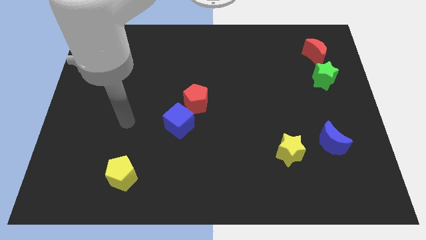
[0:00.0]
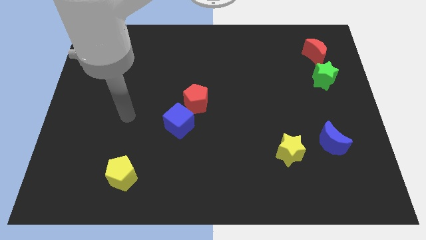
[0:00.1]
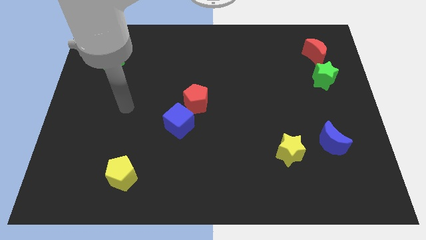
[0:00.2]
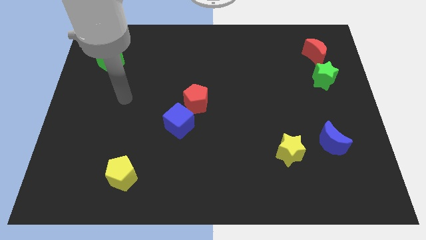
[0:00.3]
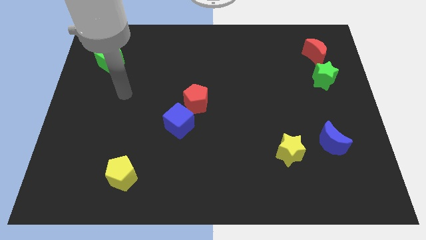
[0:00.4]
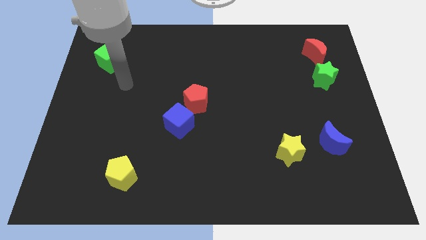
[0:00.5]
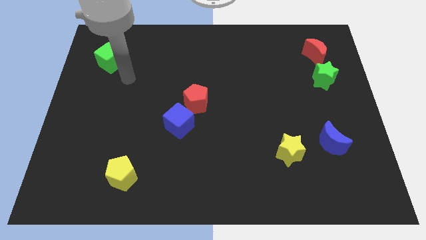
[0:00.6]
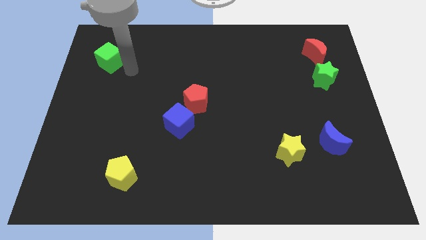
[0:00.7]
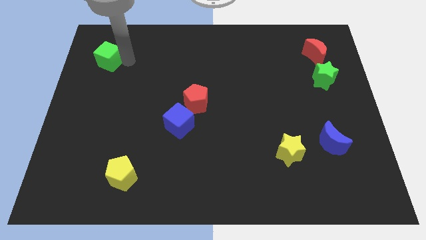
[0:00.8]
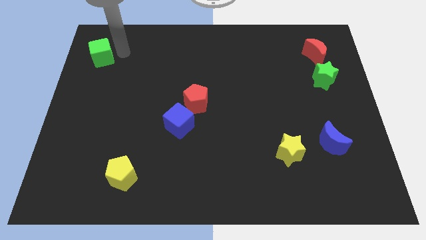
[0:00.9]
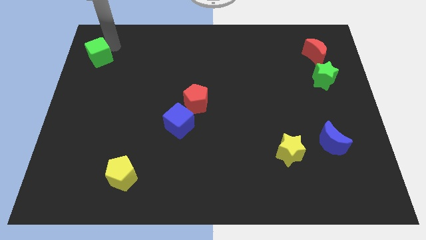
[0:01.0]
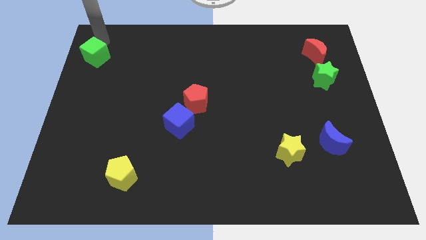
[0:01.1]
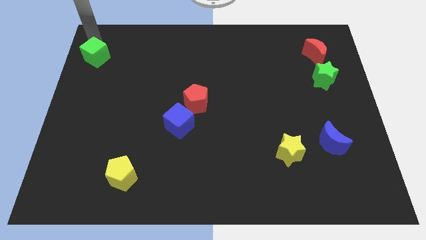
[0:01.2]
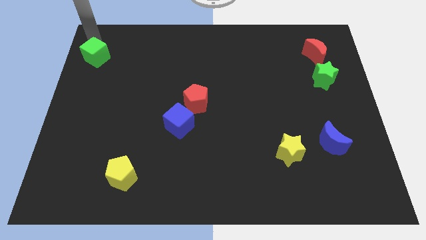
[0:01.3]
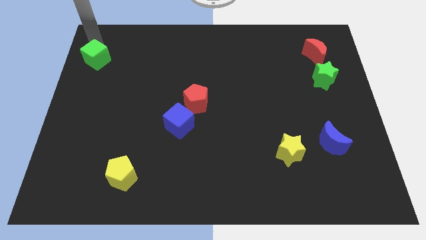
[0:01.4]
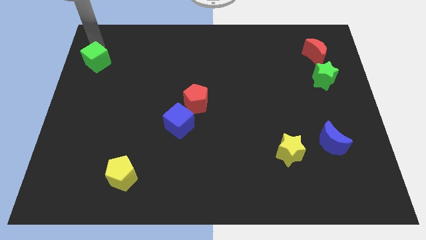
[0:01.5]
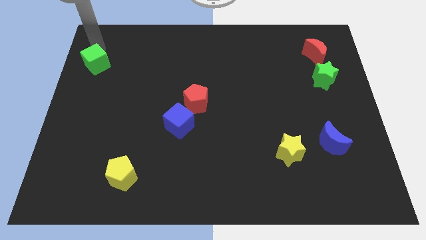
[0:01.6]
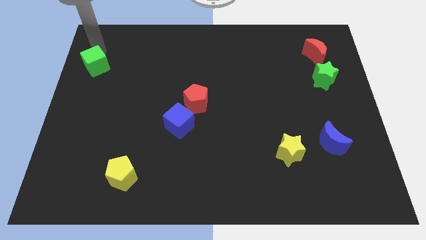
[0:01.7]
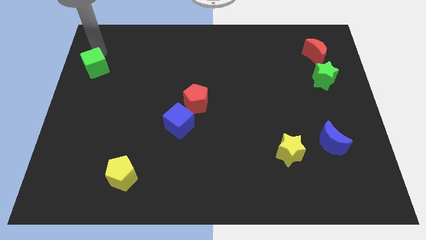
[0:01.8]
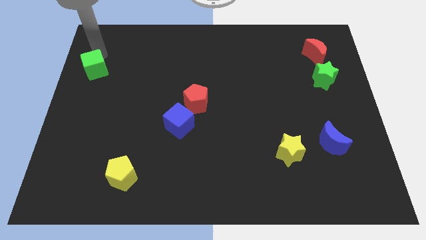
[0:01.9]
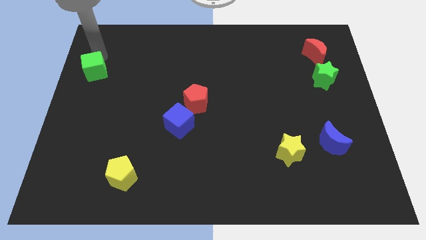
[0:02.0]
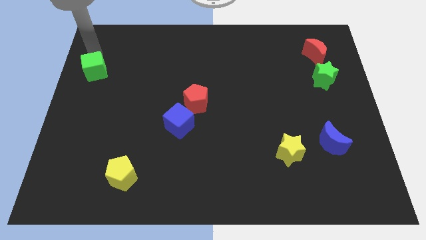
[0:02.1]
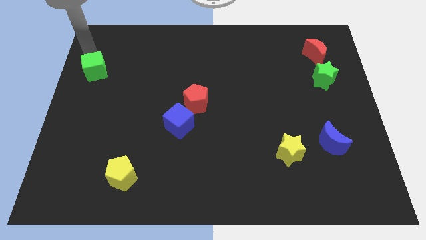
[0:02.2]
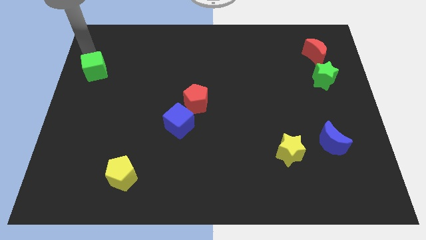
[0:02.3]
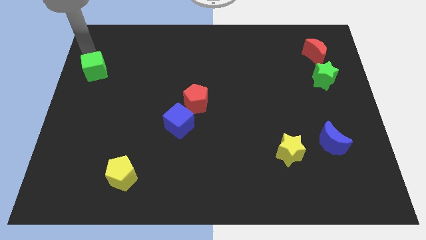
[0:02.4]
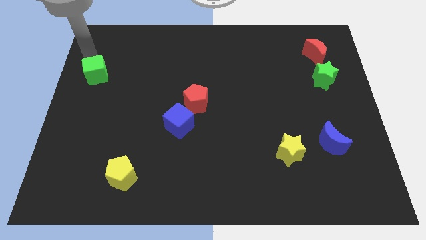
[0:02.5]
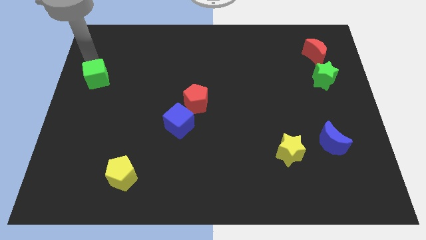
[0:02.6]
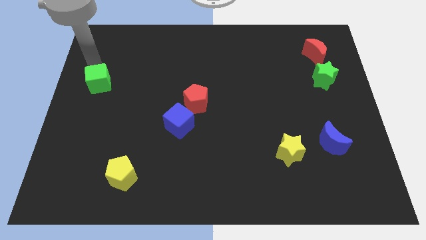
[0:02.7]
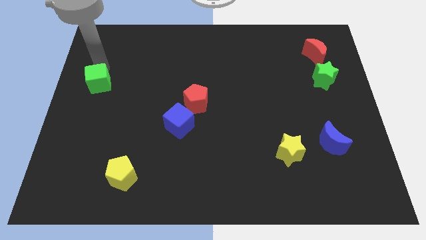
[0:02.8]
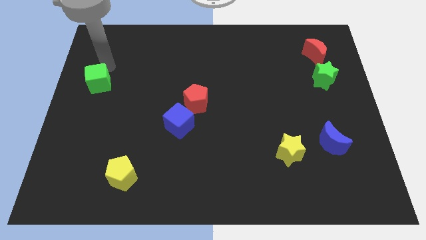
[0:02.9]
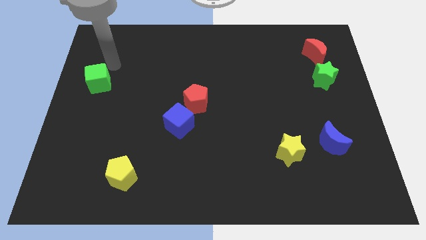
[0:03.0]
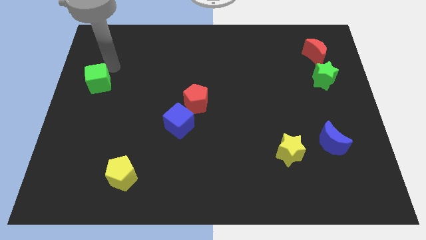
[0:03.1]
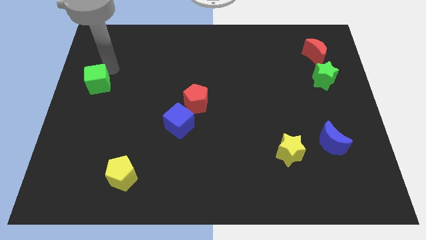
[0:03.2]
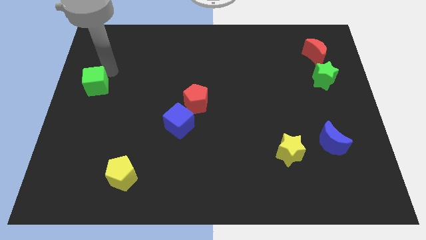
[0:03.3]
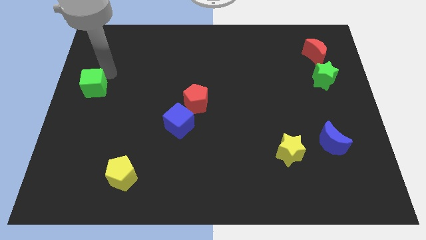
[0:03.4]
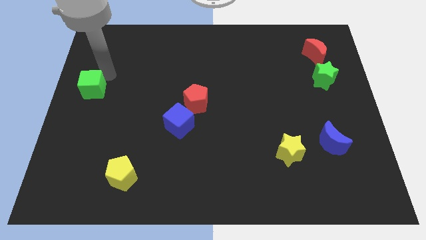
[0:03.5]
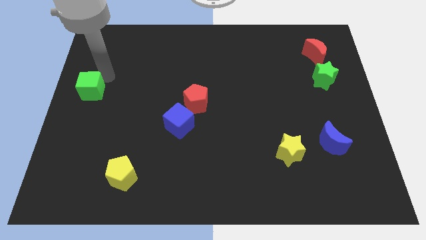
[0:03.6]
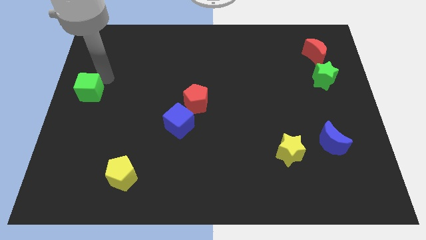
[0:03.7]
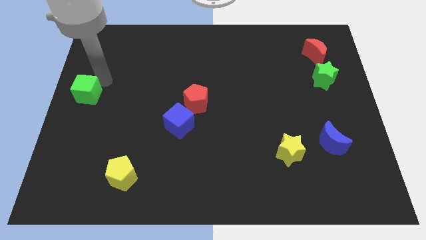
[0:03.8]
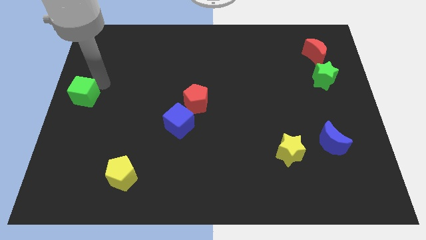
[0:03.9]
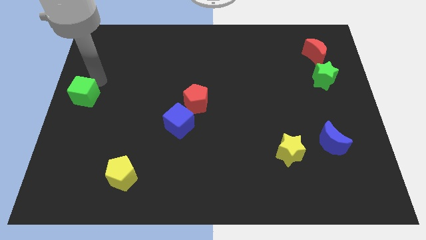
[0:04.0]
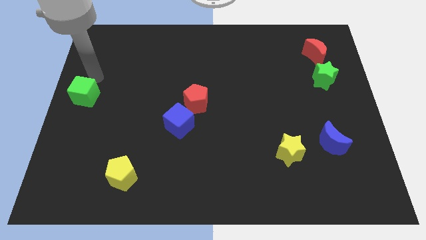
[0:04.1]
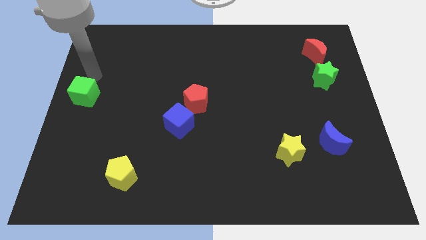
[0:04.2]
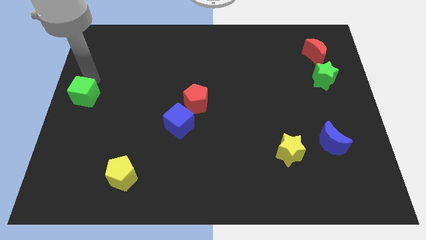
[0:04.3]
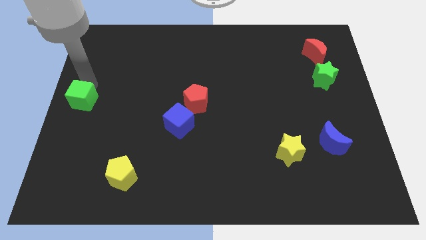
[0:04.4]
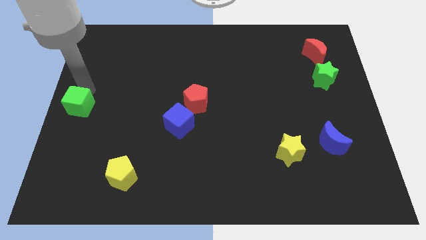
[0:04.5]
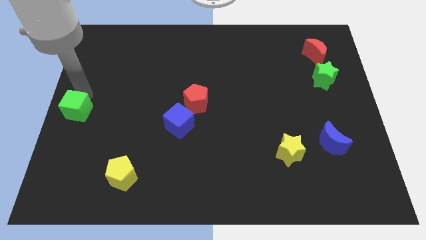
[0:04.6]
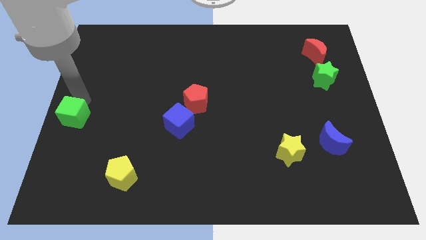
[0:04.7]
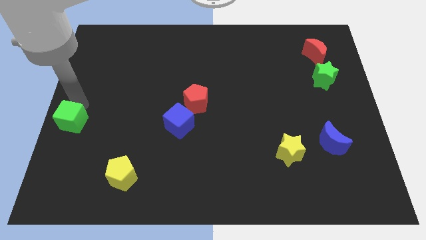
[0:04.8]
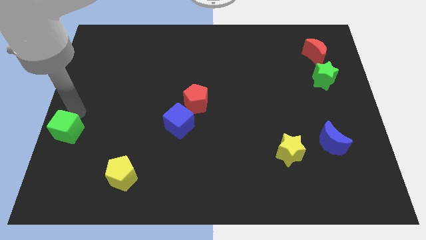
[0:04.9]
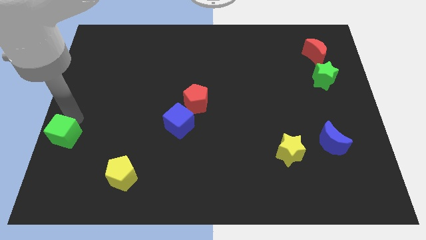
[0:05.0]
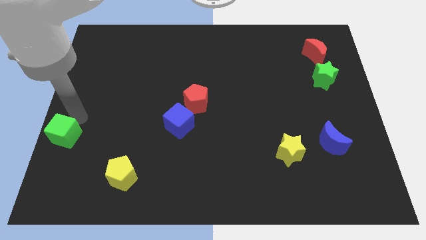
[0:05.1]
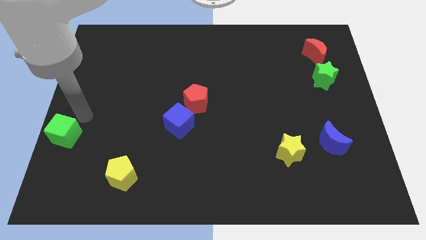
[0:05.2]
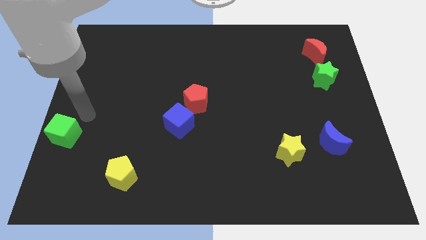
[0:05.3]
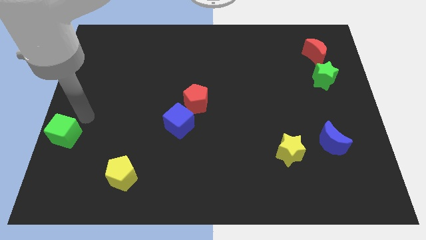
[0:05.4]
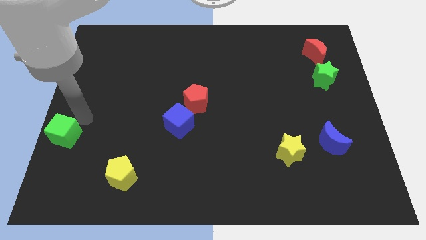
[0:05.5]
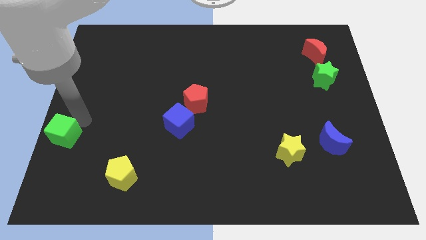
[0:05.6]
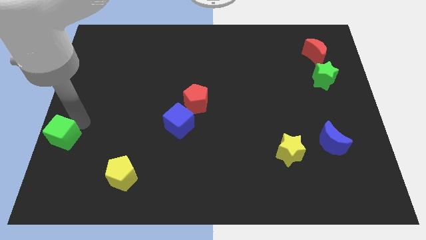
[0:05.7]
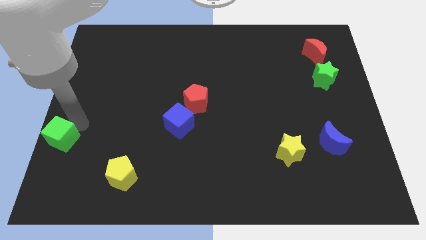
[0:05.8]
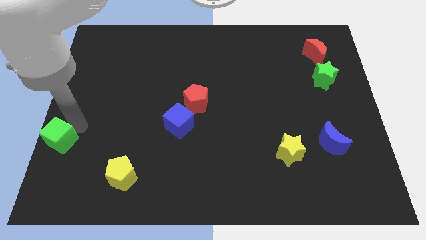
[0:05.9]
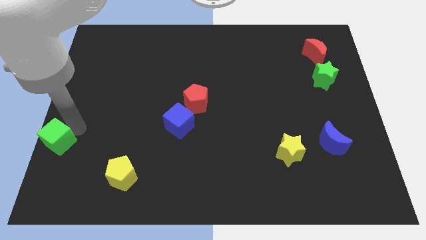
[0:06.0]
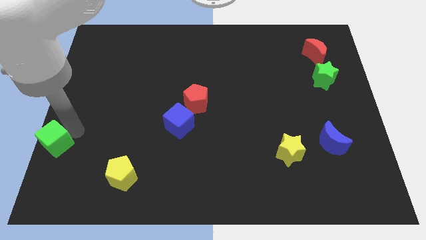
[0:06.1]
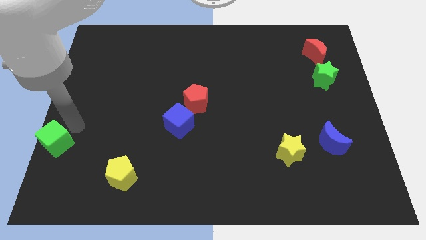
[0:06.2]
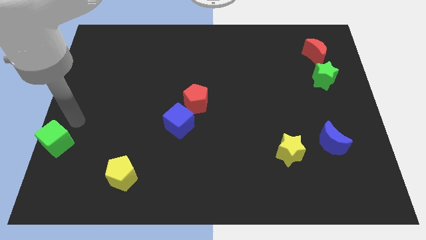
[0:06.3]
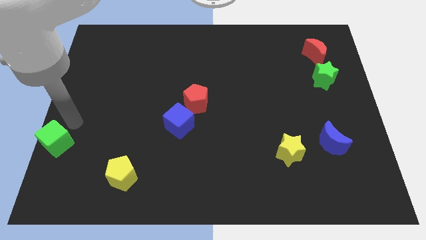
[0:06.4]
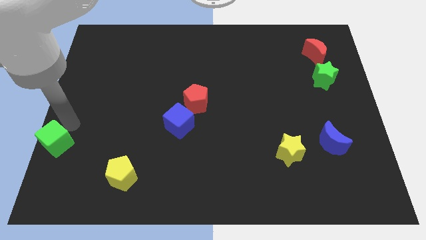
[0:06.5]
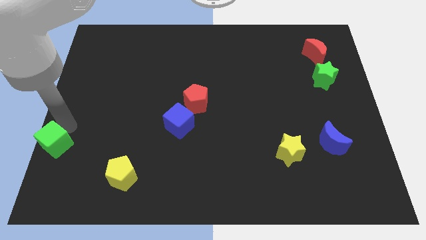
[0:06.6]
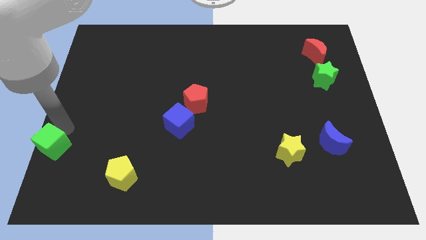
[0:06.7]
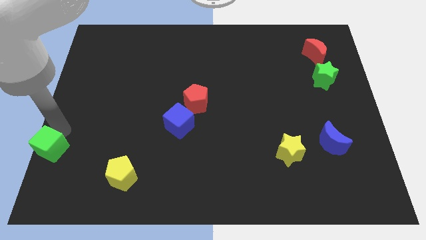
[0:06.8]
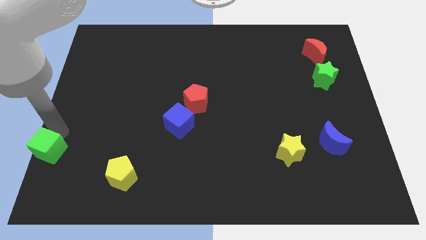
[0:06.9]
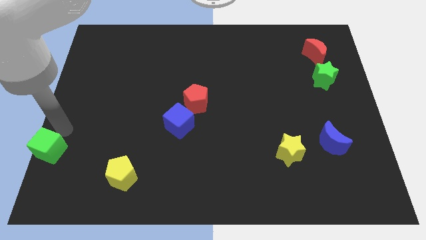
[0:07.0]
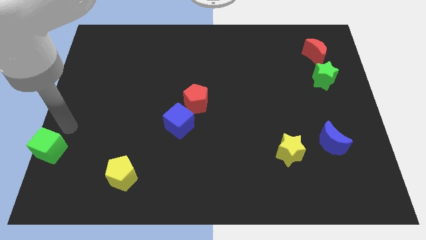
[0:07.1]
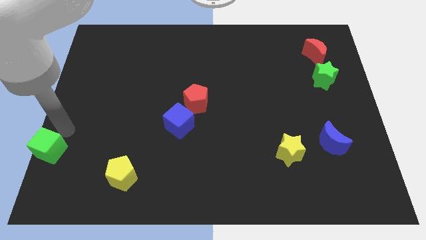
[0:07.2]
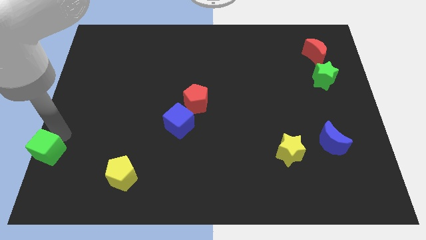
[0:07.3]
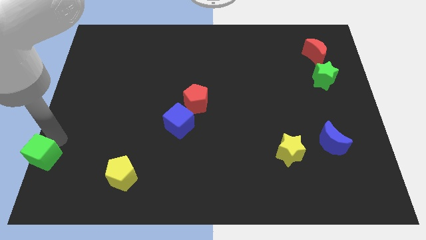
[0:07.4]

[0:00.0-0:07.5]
slide the green cube to the bottom left of the board
